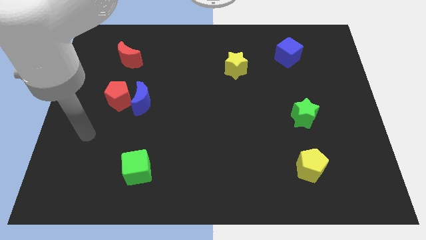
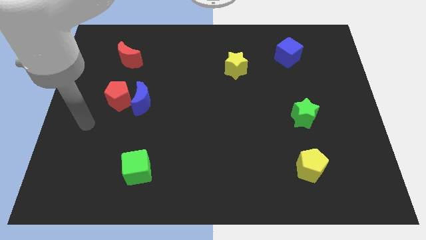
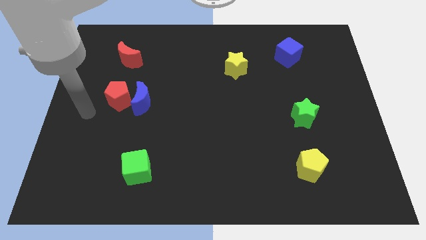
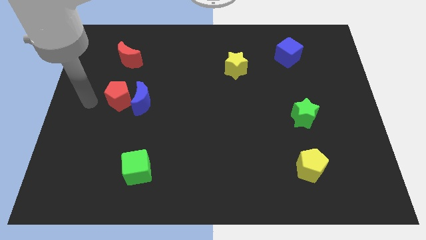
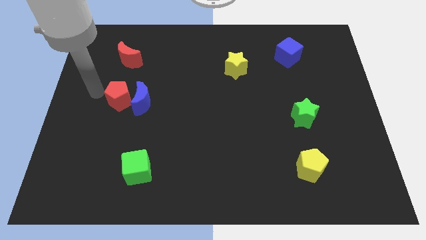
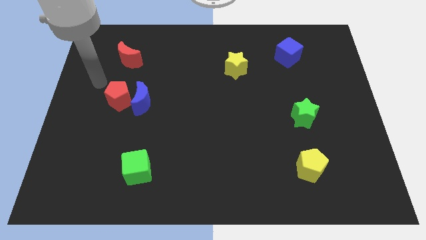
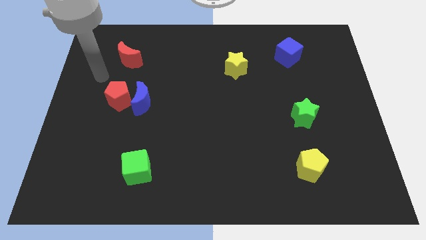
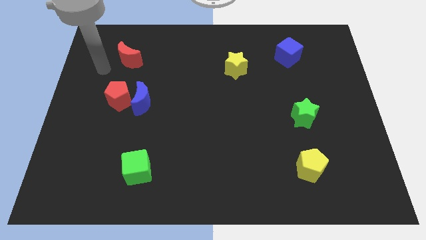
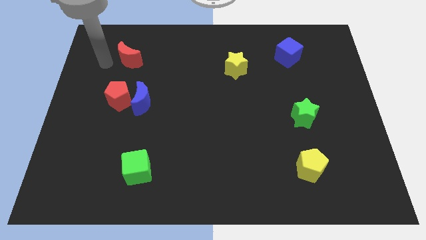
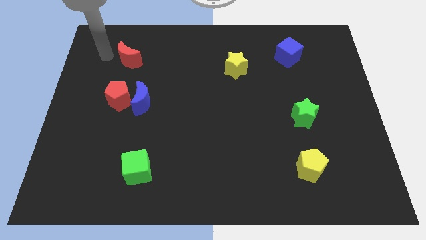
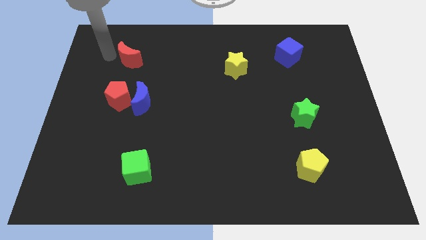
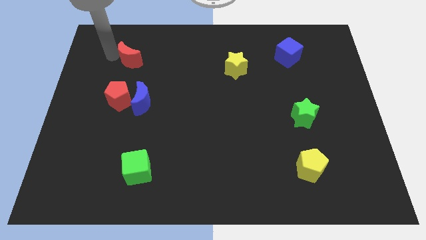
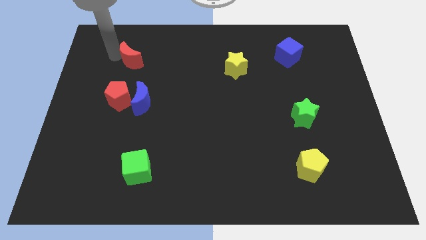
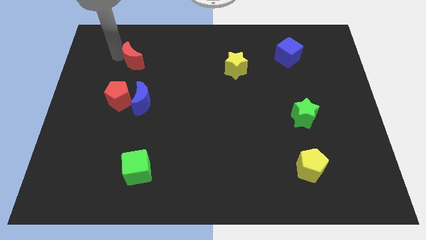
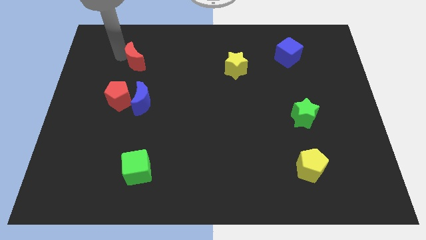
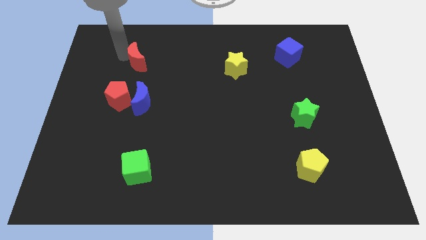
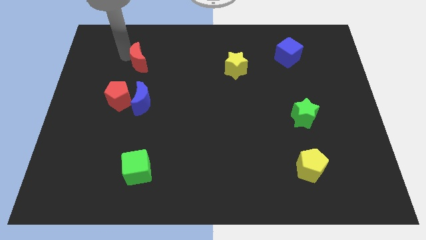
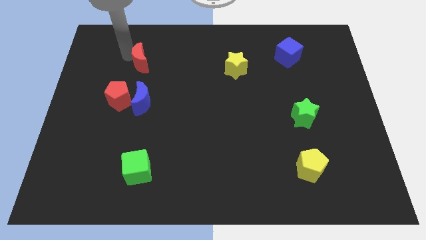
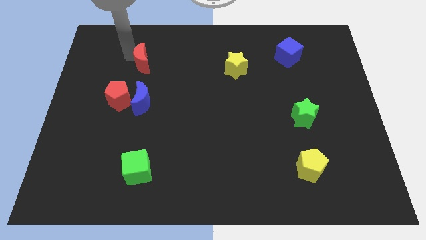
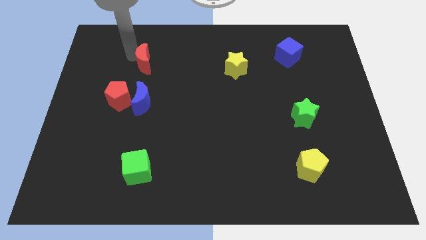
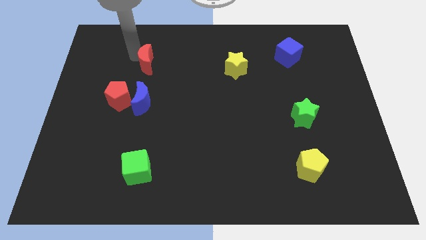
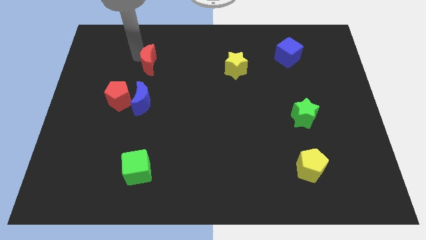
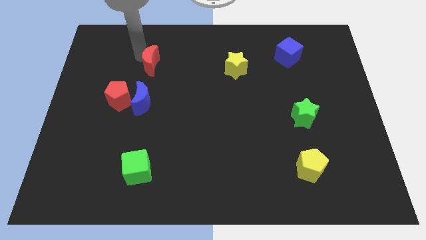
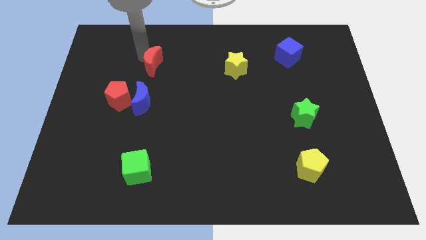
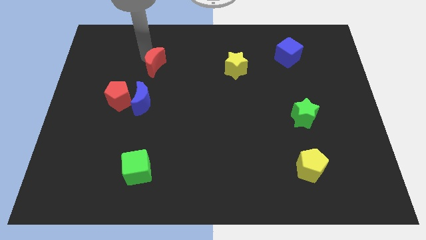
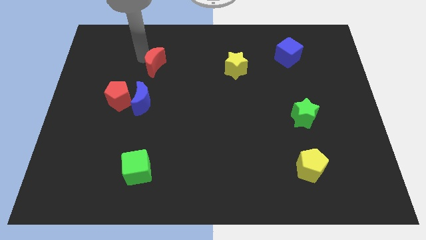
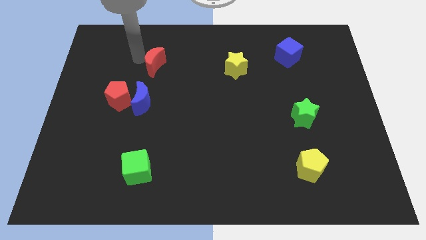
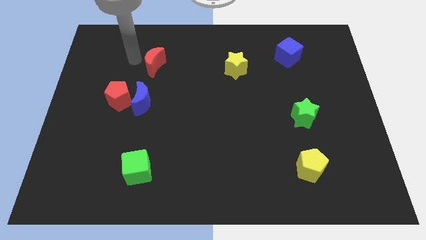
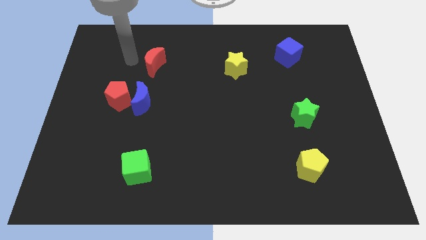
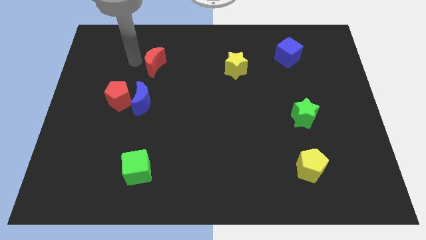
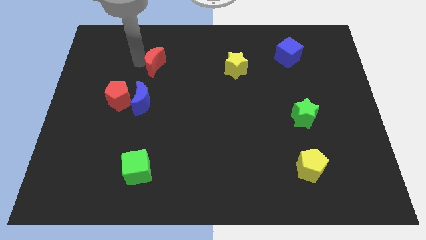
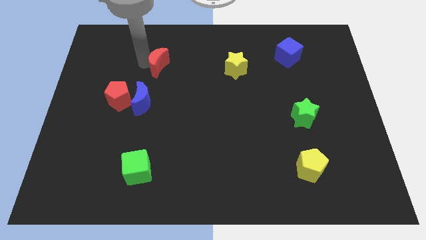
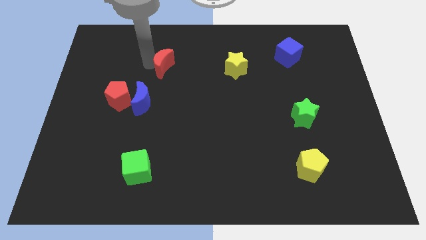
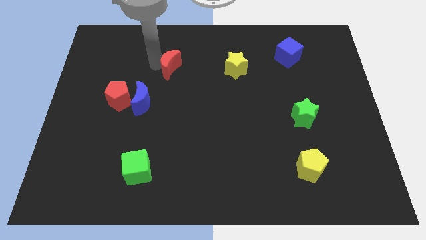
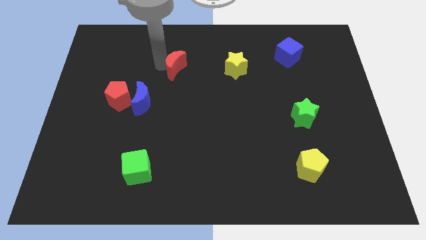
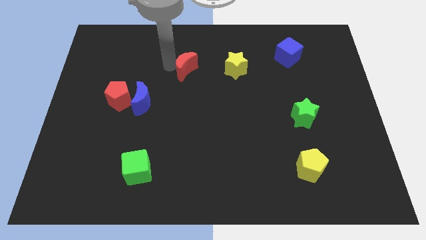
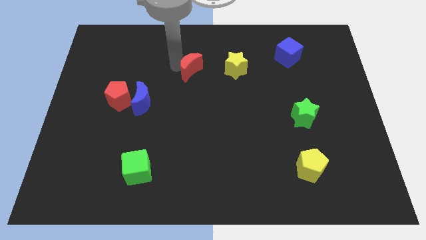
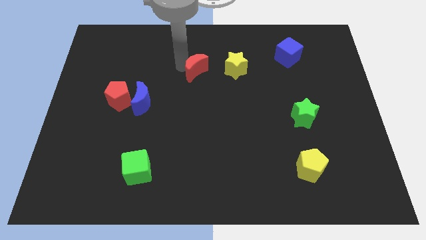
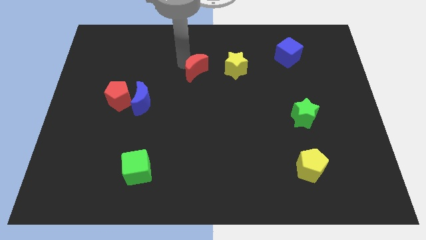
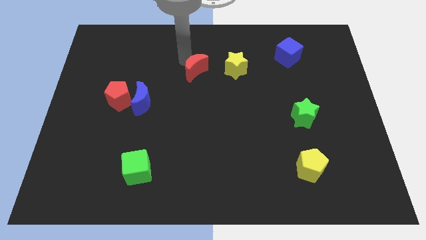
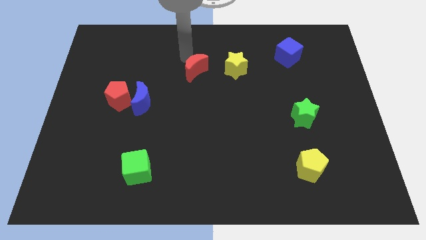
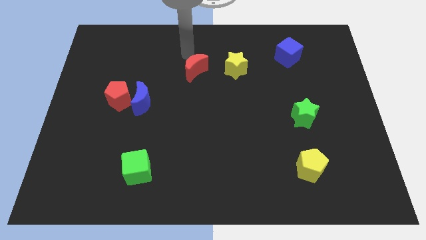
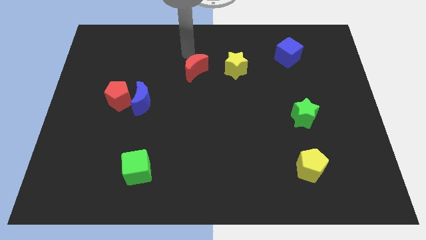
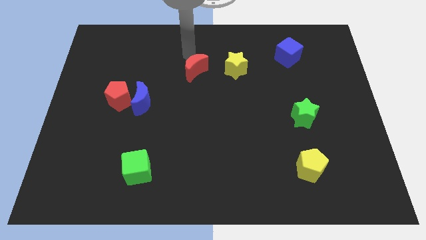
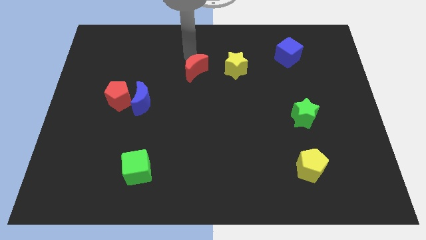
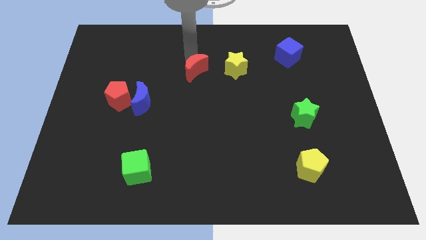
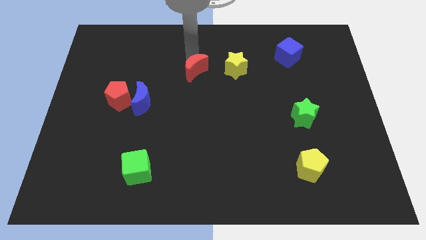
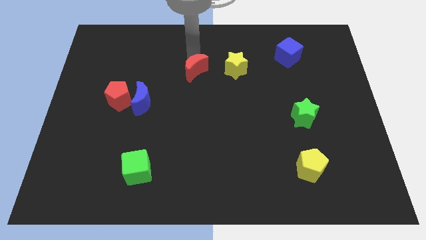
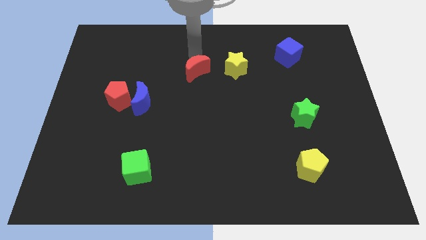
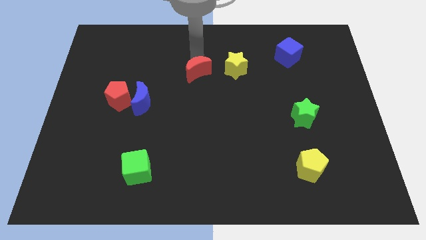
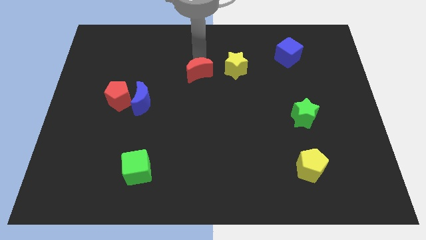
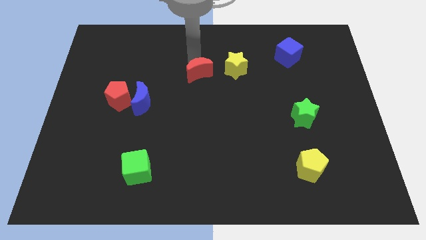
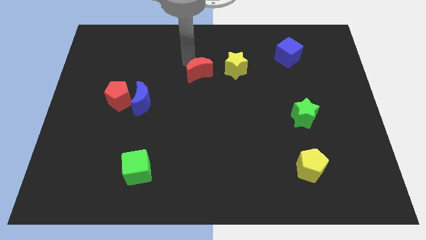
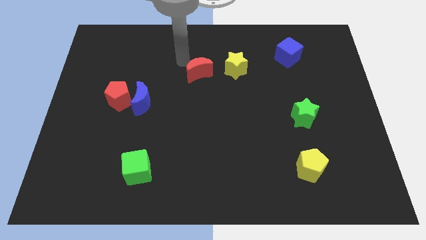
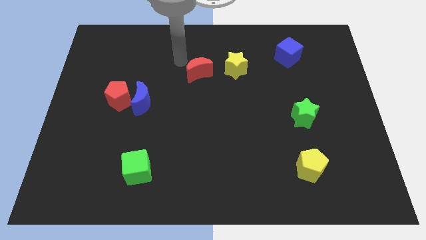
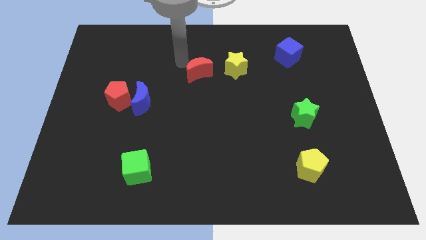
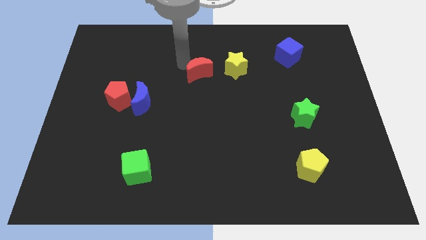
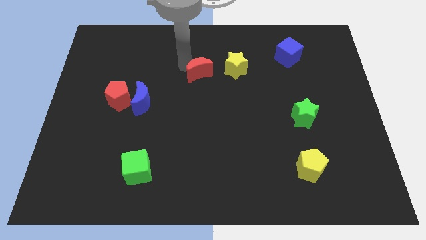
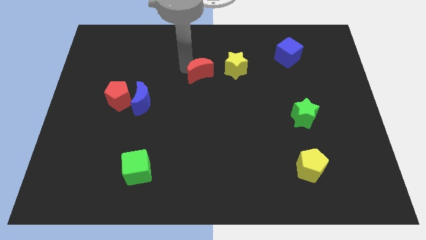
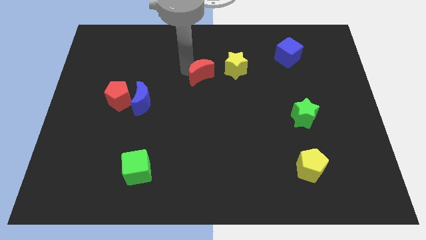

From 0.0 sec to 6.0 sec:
slide the red moon to the bottom left of the yellow star
